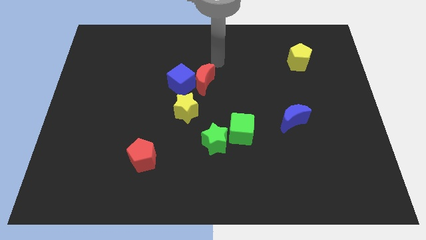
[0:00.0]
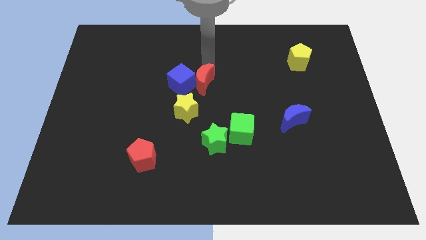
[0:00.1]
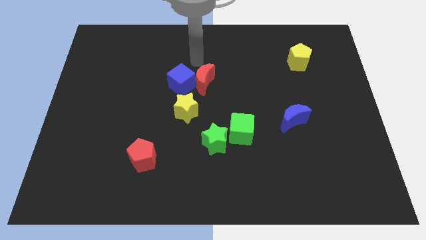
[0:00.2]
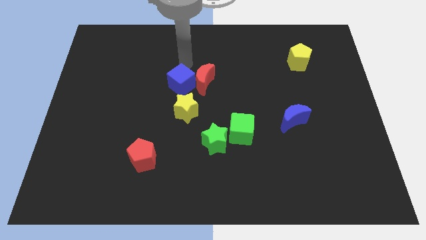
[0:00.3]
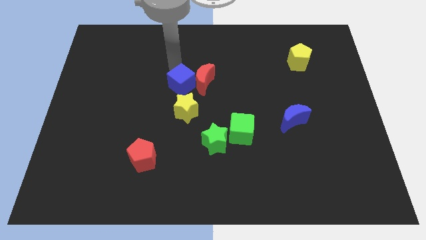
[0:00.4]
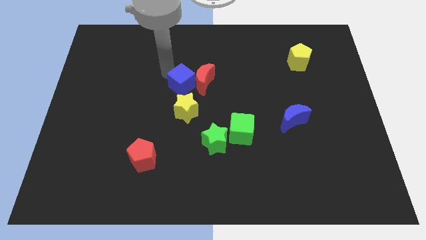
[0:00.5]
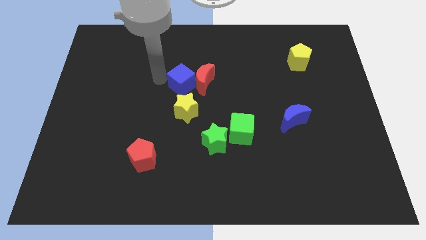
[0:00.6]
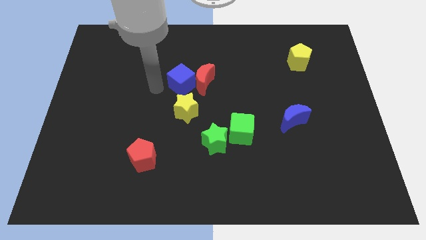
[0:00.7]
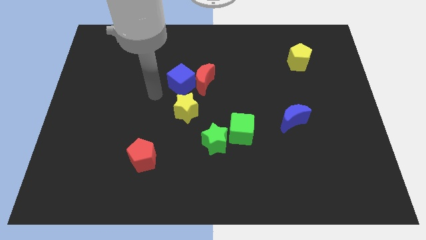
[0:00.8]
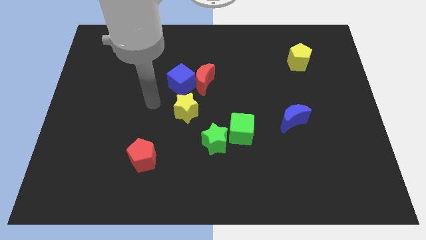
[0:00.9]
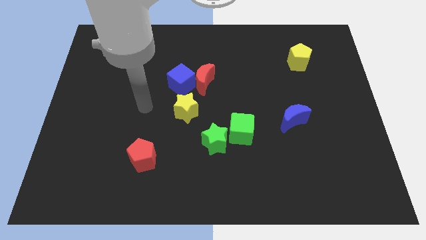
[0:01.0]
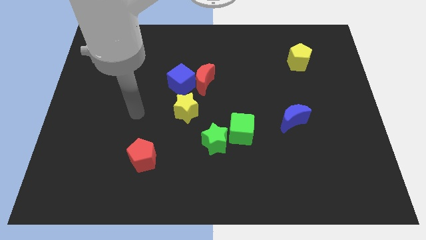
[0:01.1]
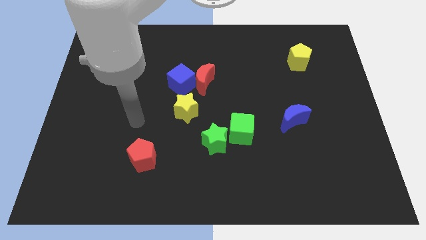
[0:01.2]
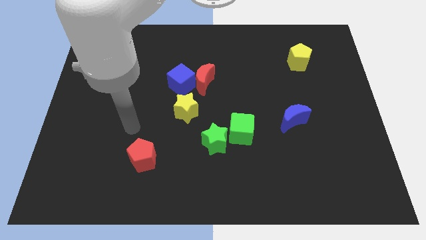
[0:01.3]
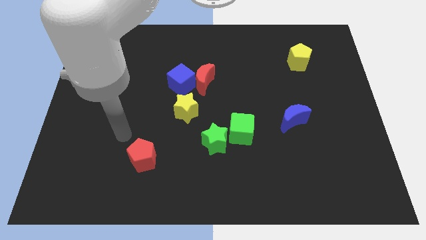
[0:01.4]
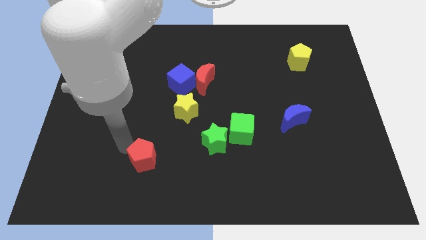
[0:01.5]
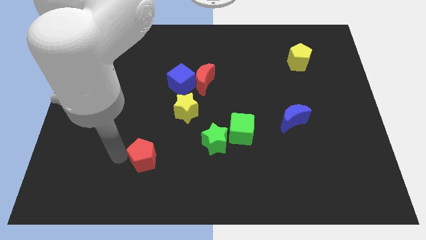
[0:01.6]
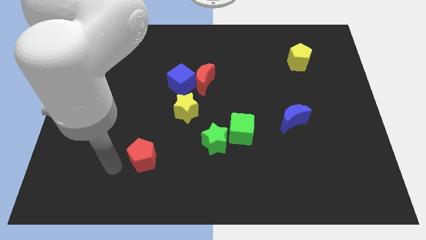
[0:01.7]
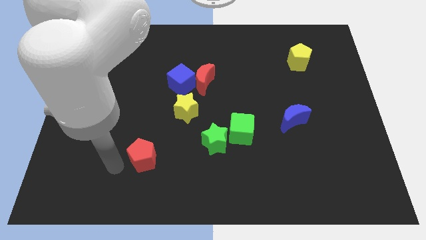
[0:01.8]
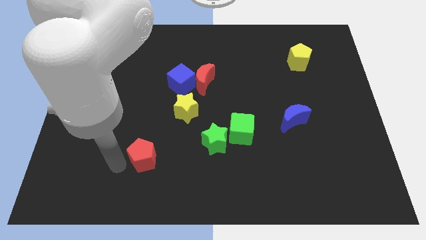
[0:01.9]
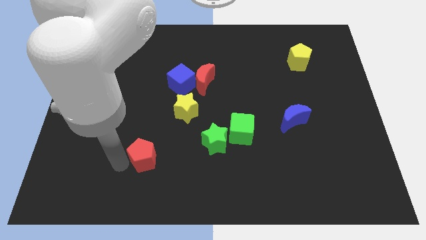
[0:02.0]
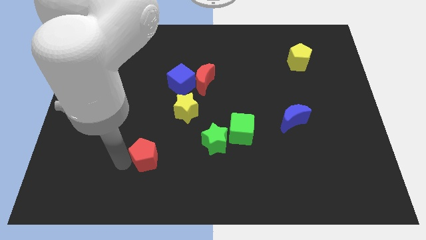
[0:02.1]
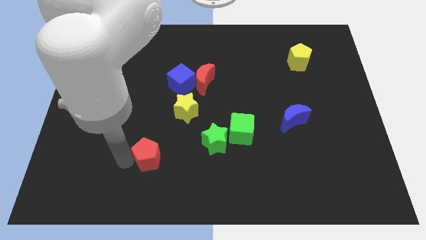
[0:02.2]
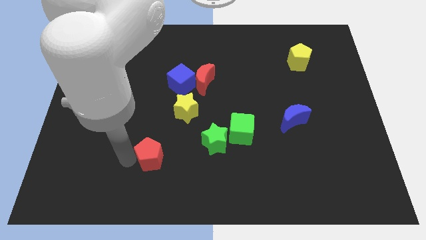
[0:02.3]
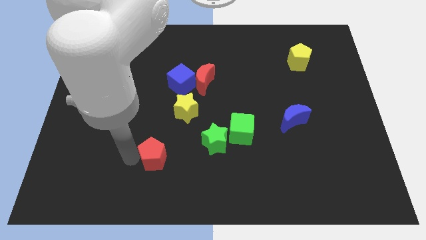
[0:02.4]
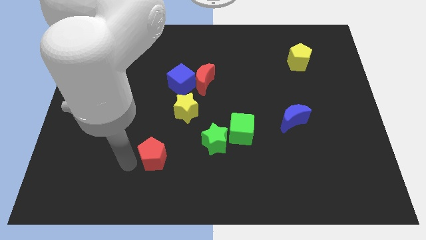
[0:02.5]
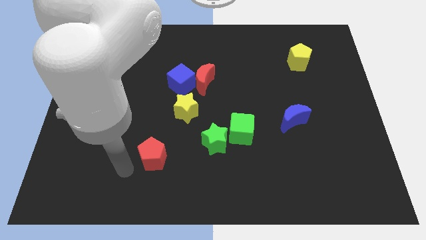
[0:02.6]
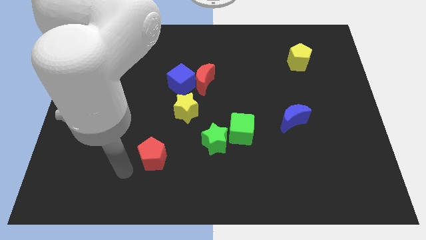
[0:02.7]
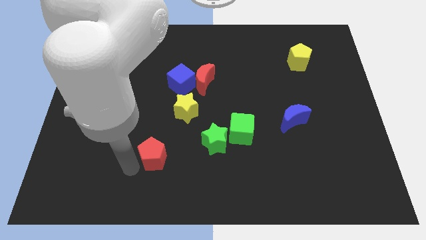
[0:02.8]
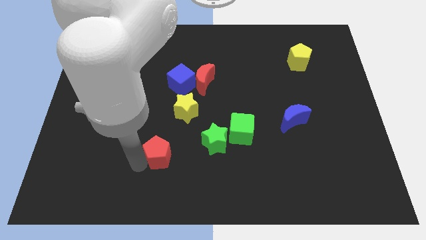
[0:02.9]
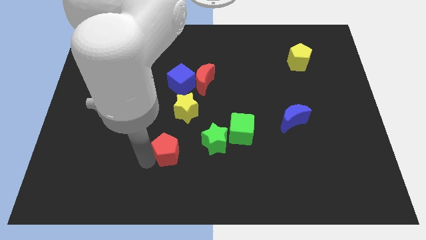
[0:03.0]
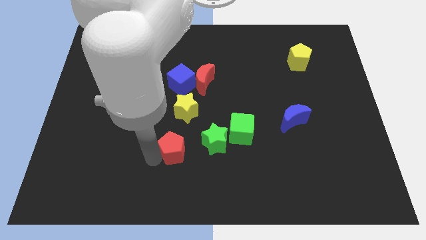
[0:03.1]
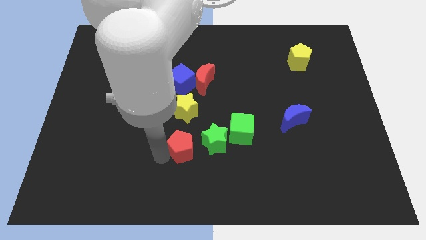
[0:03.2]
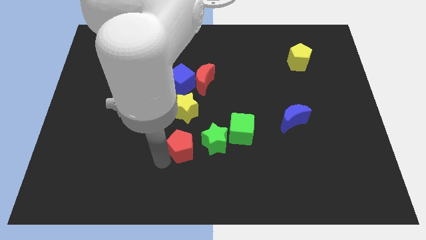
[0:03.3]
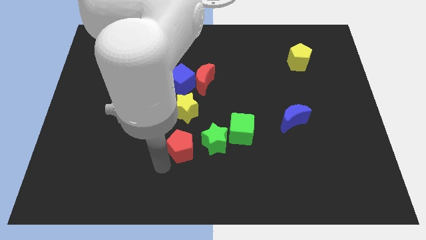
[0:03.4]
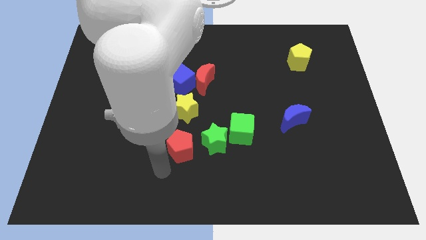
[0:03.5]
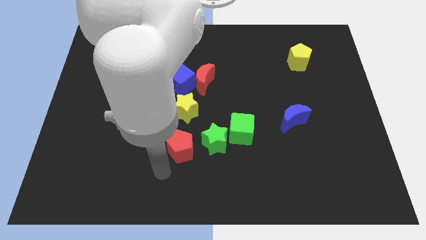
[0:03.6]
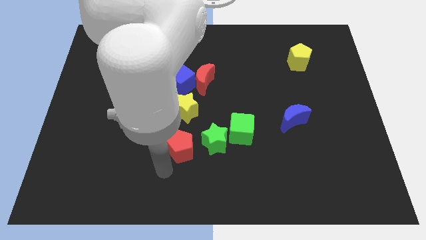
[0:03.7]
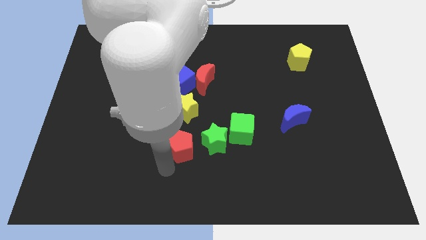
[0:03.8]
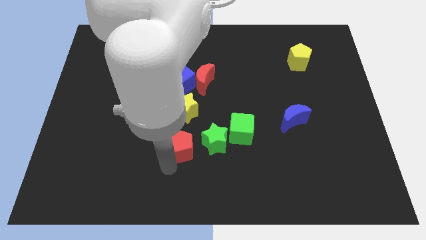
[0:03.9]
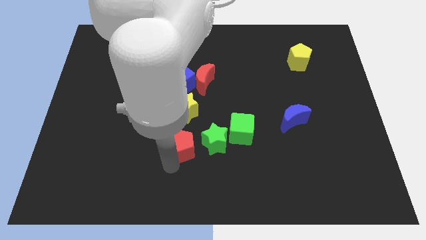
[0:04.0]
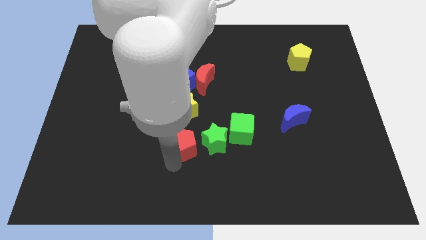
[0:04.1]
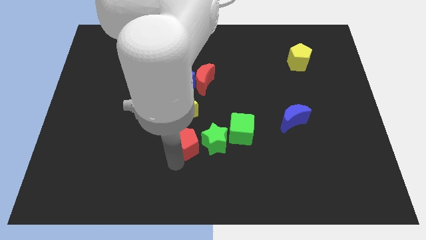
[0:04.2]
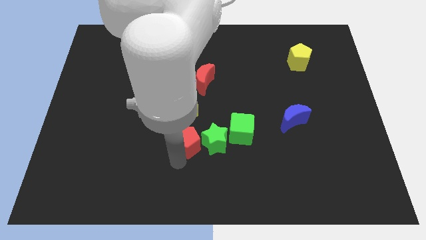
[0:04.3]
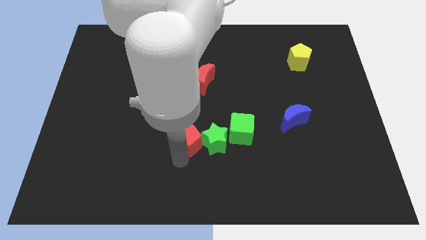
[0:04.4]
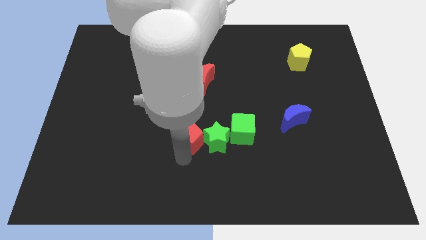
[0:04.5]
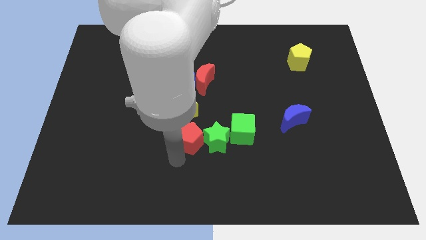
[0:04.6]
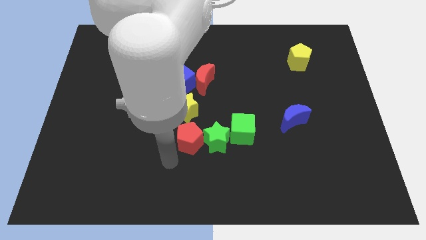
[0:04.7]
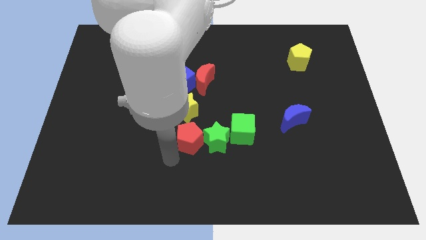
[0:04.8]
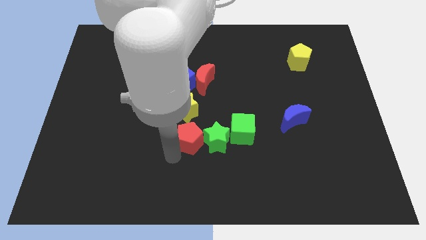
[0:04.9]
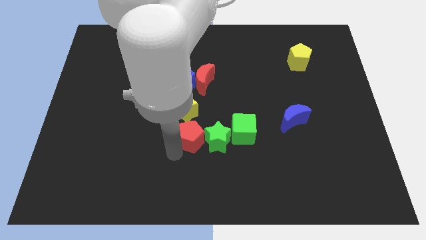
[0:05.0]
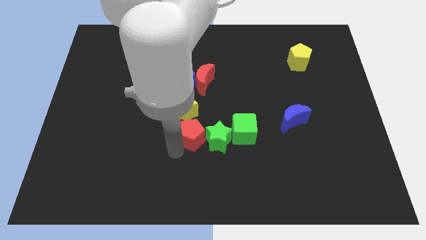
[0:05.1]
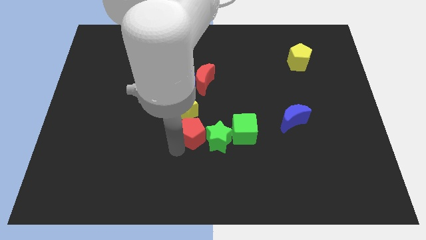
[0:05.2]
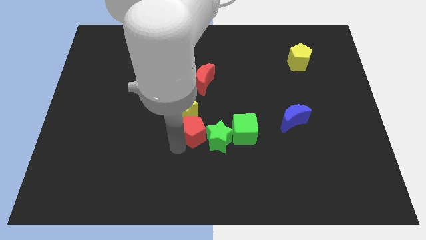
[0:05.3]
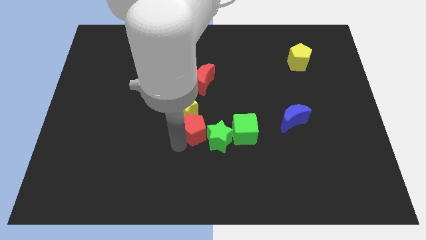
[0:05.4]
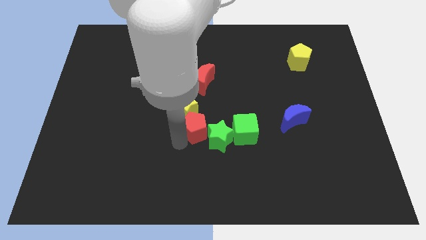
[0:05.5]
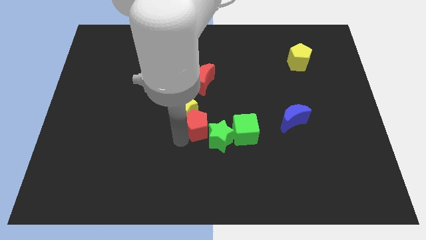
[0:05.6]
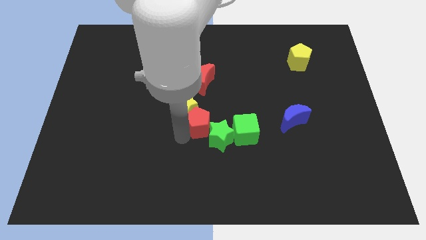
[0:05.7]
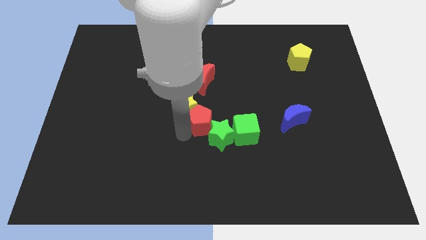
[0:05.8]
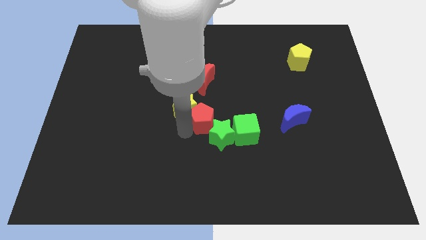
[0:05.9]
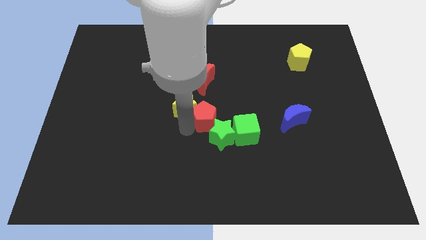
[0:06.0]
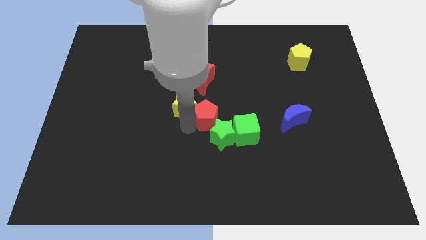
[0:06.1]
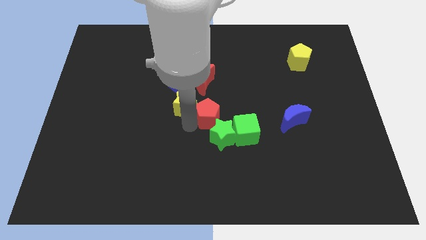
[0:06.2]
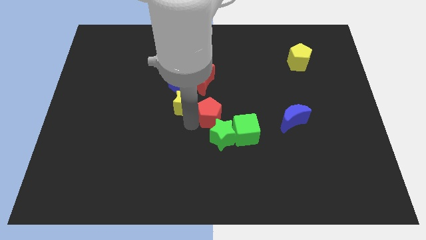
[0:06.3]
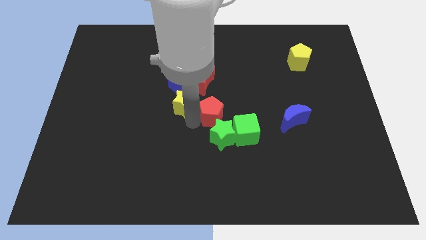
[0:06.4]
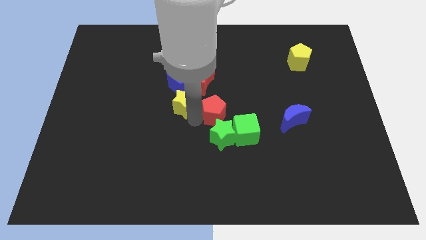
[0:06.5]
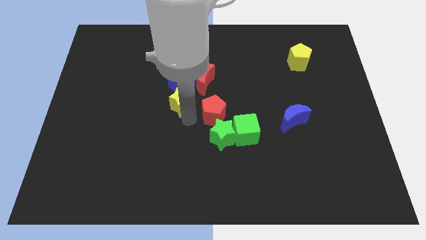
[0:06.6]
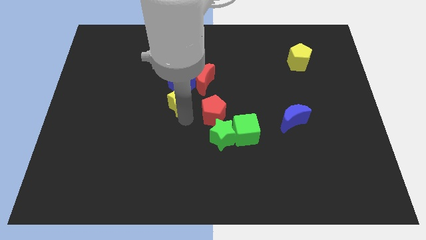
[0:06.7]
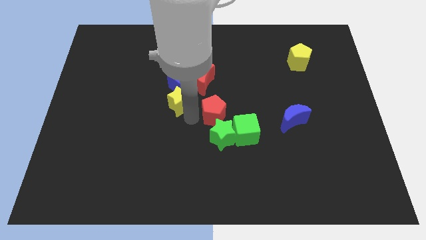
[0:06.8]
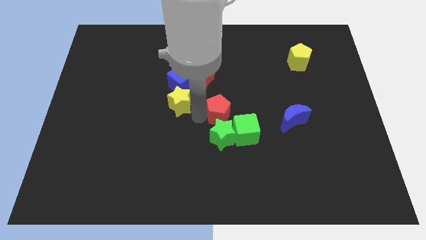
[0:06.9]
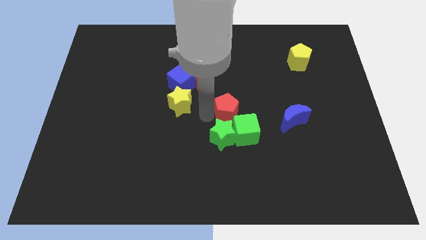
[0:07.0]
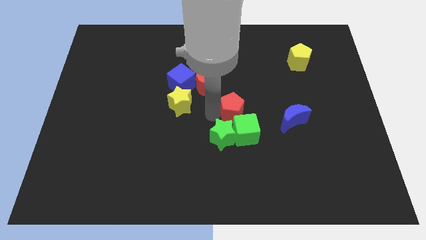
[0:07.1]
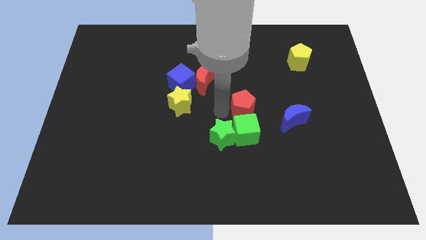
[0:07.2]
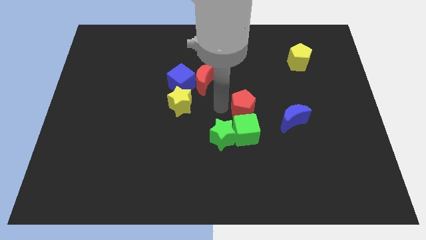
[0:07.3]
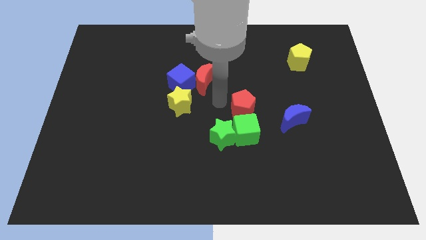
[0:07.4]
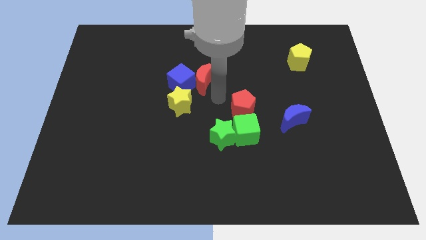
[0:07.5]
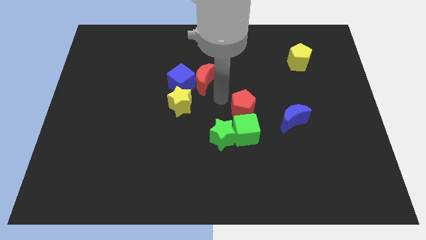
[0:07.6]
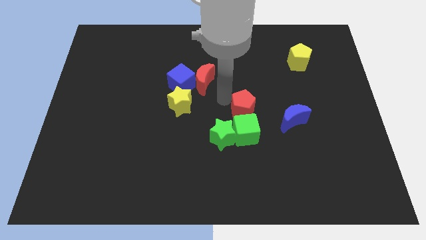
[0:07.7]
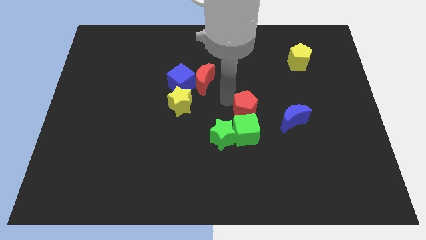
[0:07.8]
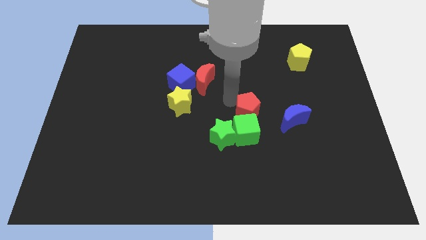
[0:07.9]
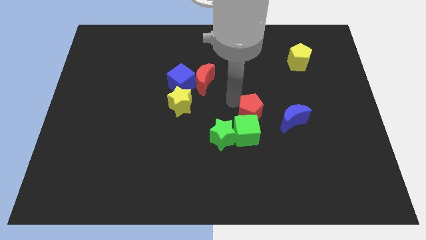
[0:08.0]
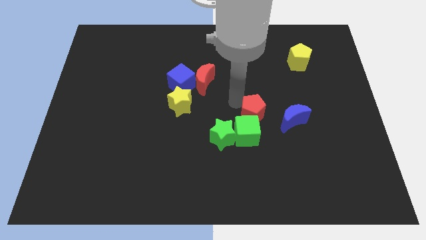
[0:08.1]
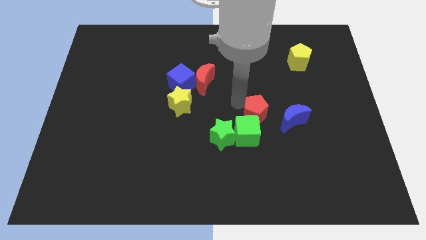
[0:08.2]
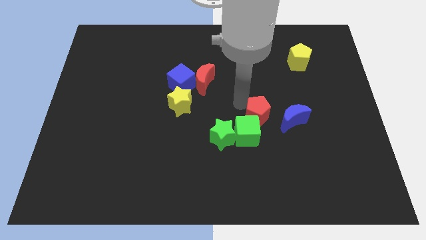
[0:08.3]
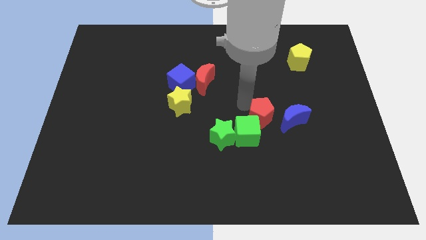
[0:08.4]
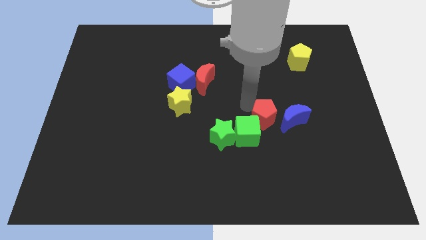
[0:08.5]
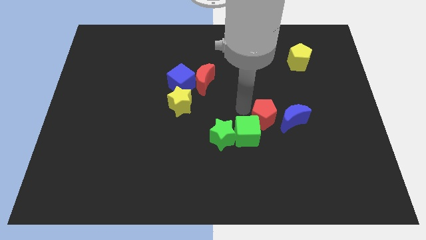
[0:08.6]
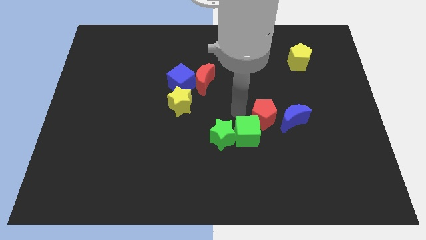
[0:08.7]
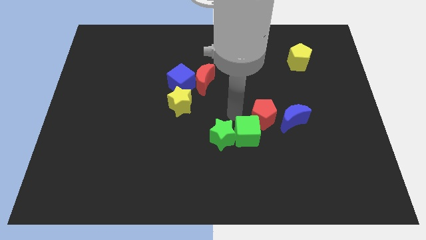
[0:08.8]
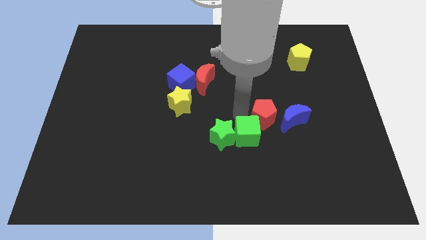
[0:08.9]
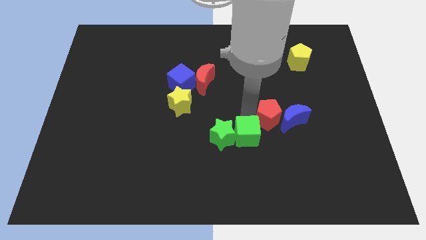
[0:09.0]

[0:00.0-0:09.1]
push the red pentagon to the blue moon
